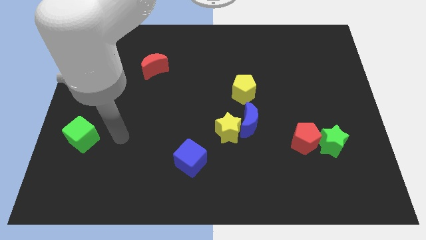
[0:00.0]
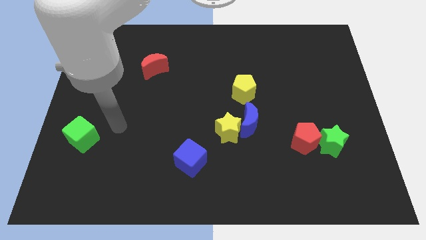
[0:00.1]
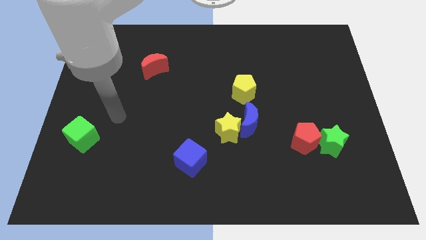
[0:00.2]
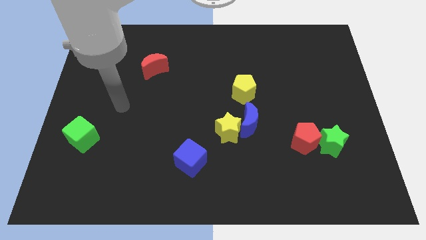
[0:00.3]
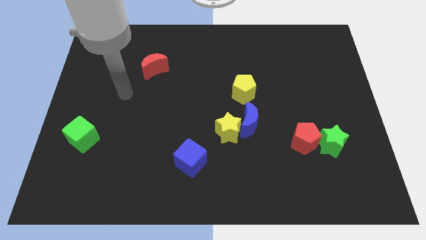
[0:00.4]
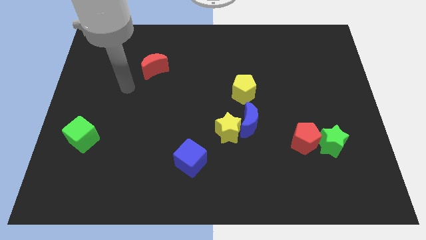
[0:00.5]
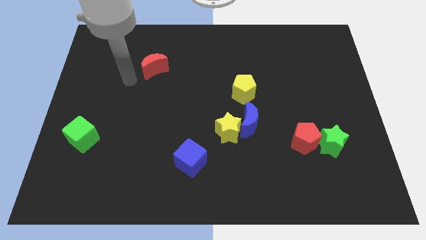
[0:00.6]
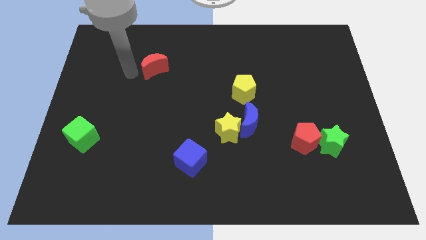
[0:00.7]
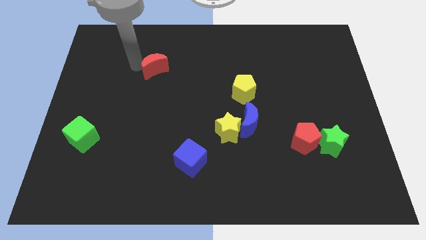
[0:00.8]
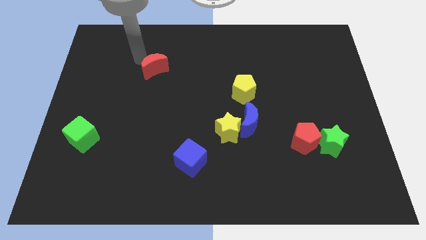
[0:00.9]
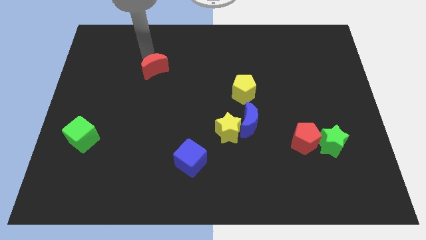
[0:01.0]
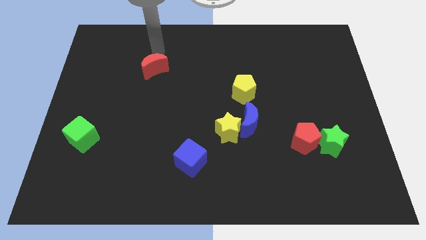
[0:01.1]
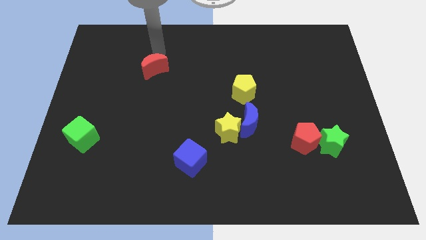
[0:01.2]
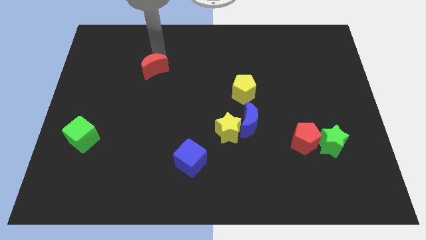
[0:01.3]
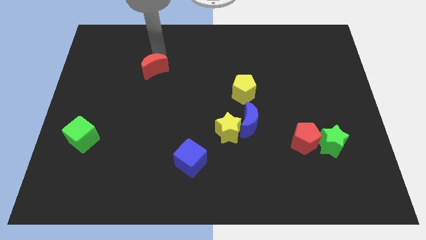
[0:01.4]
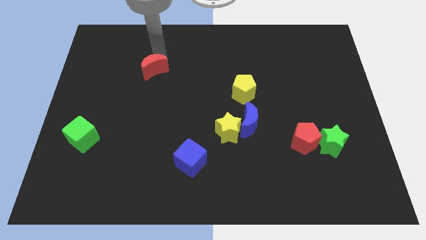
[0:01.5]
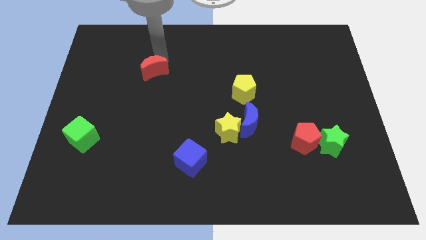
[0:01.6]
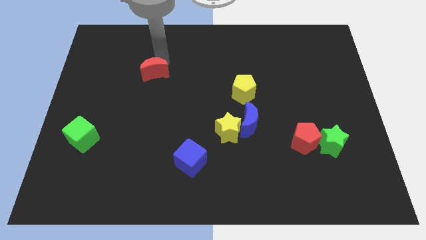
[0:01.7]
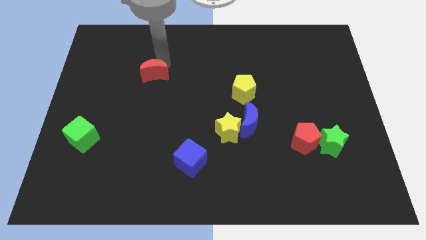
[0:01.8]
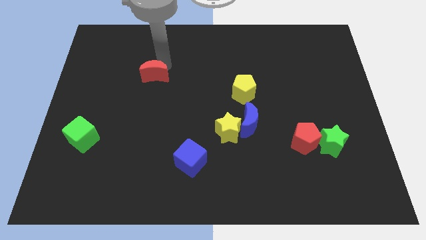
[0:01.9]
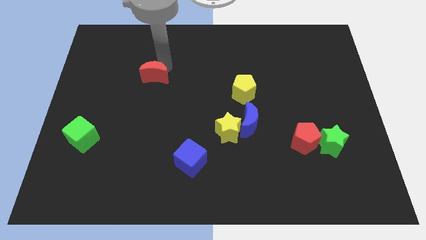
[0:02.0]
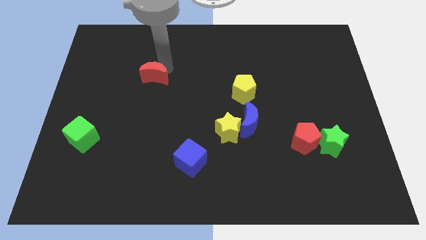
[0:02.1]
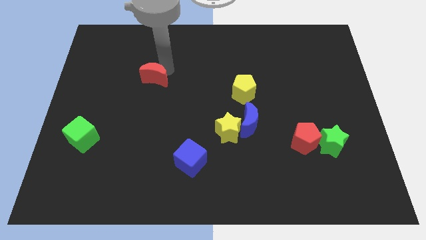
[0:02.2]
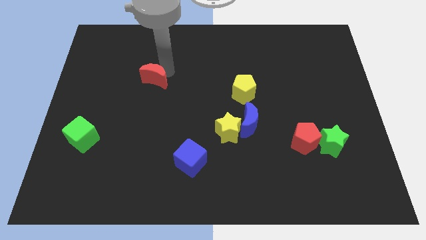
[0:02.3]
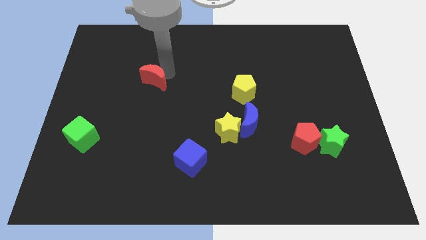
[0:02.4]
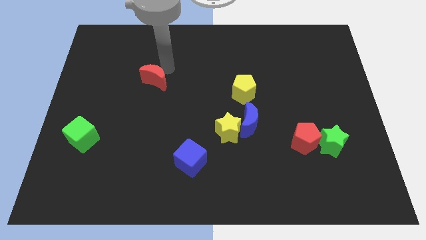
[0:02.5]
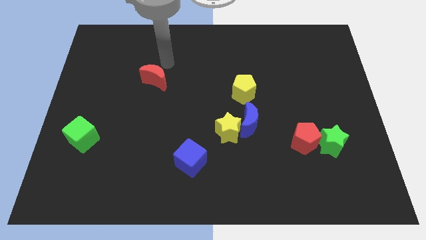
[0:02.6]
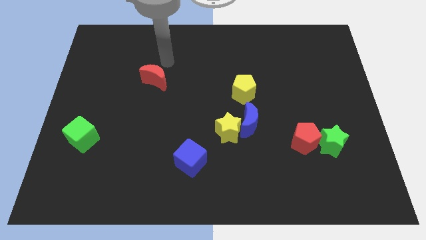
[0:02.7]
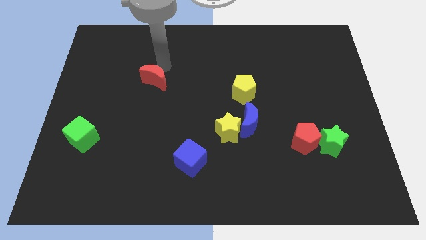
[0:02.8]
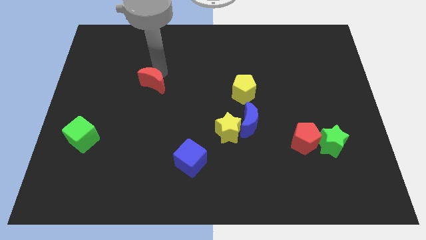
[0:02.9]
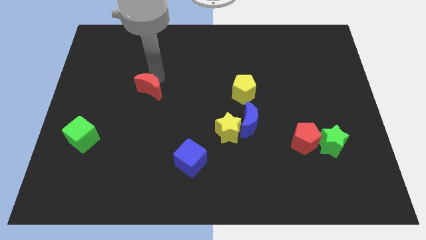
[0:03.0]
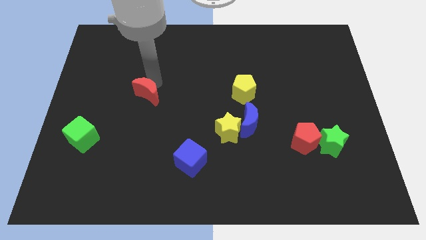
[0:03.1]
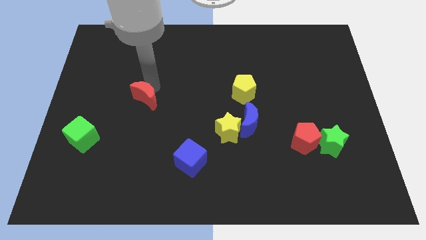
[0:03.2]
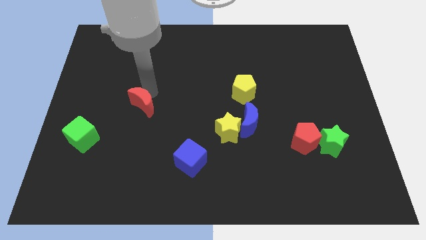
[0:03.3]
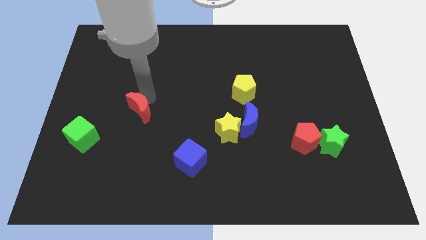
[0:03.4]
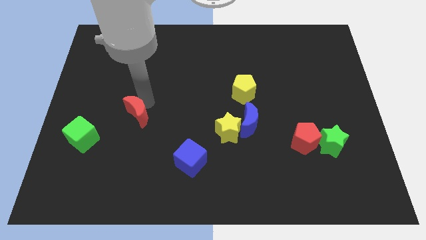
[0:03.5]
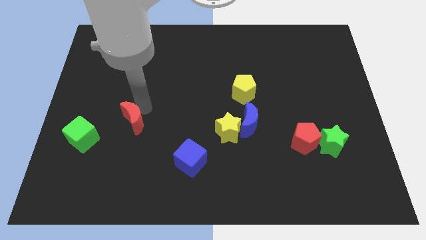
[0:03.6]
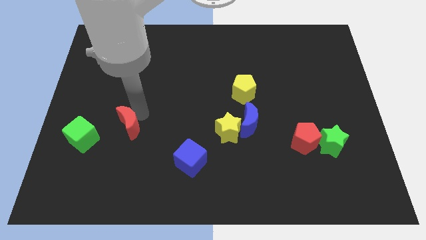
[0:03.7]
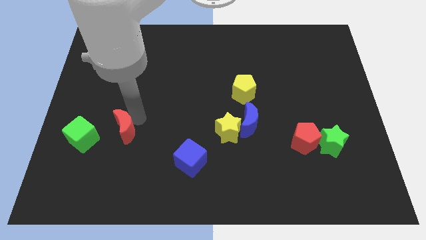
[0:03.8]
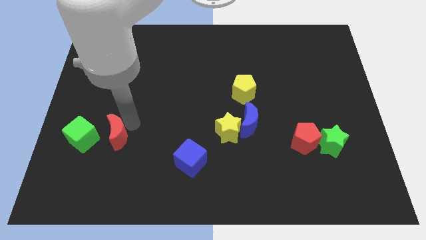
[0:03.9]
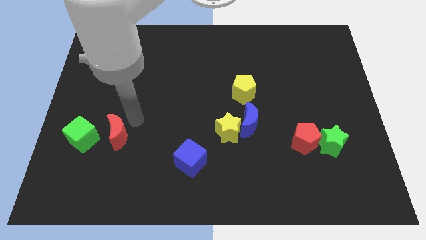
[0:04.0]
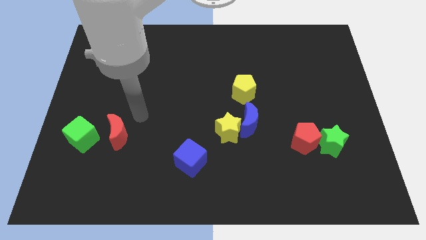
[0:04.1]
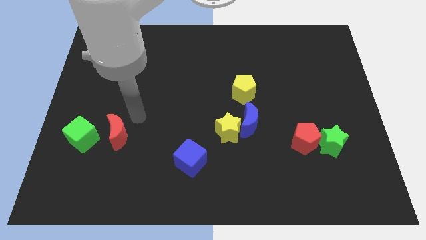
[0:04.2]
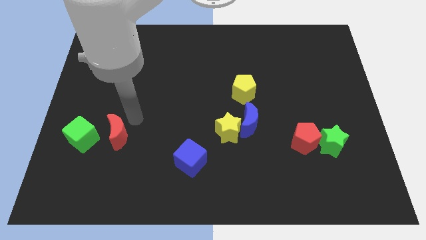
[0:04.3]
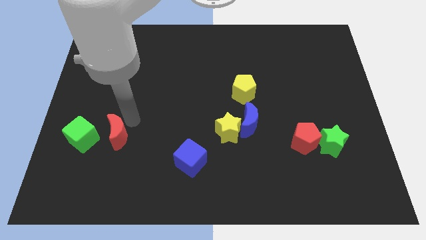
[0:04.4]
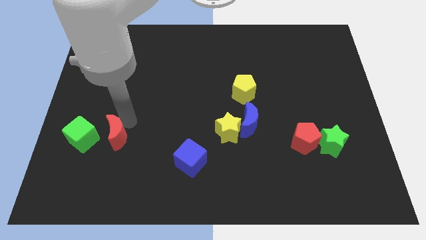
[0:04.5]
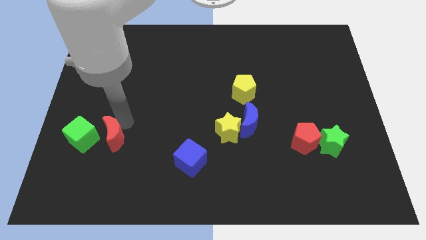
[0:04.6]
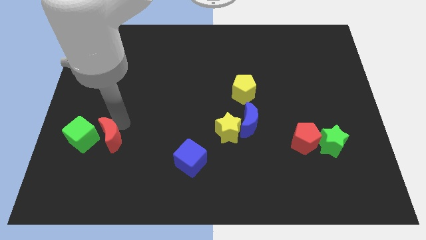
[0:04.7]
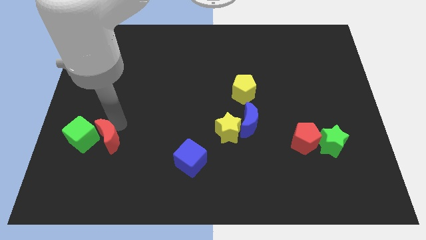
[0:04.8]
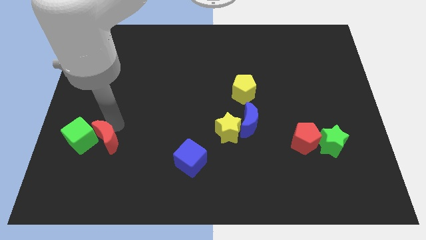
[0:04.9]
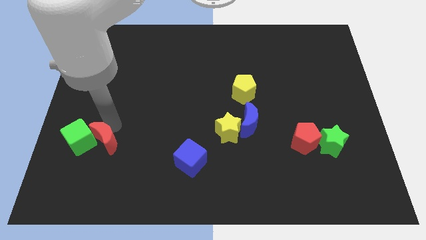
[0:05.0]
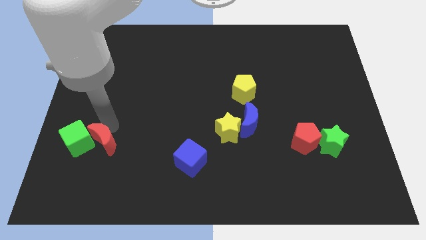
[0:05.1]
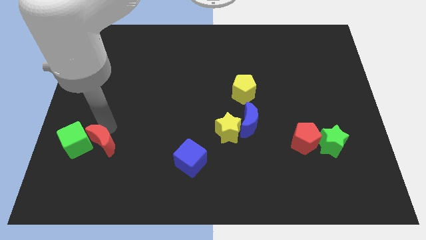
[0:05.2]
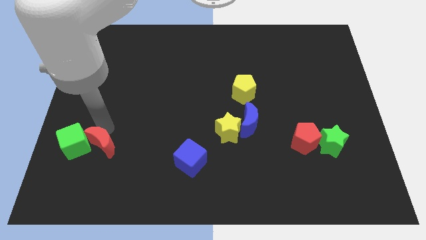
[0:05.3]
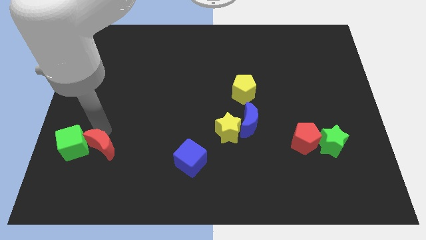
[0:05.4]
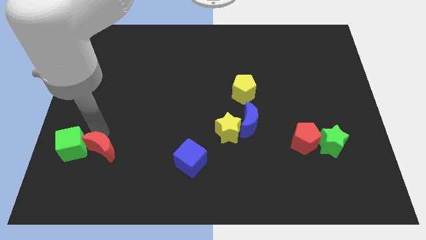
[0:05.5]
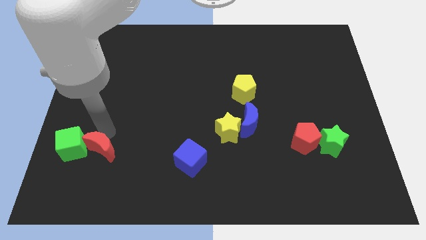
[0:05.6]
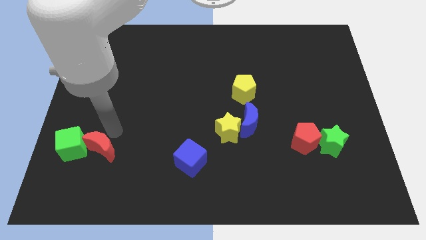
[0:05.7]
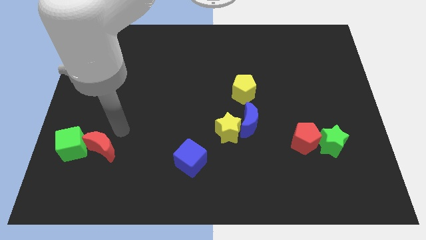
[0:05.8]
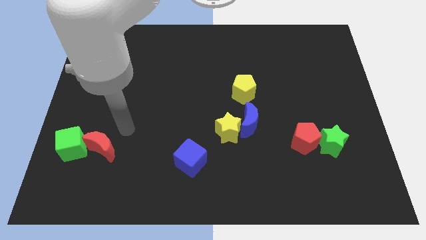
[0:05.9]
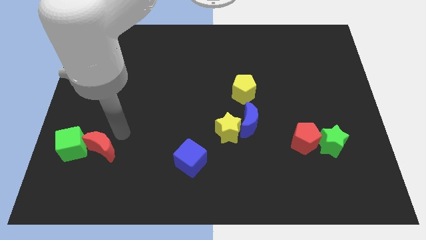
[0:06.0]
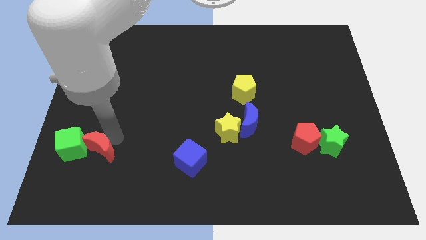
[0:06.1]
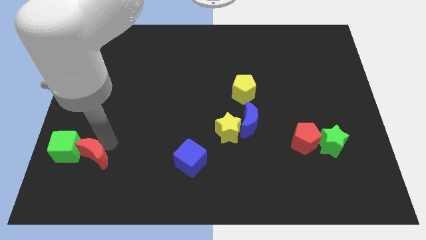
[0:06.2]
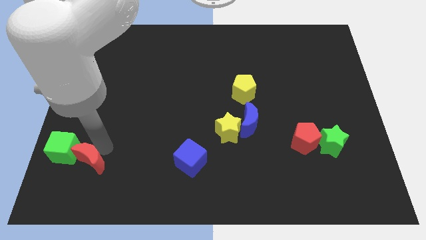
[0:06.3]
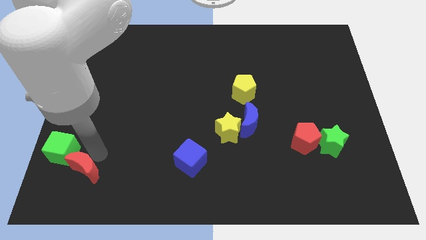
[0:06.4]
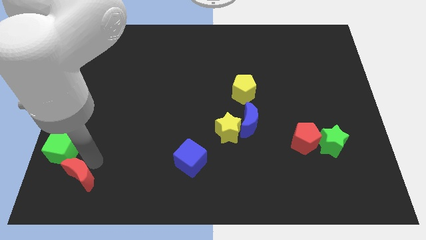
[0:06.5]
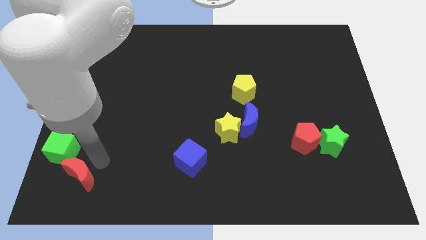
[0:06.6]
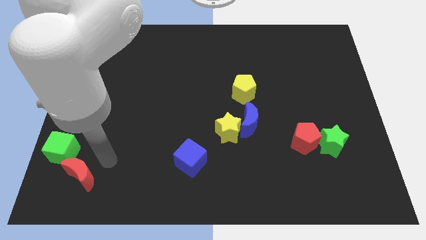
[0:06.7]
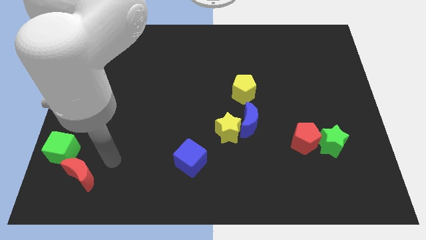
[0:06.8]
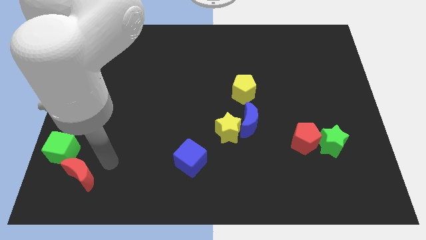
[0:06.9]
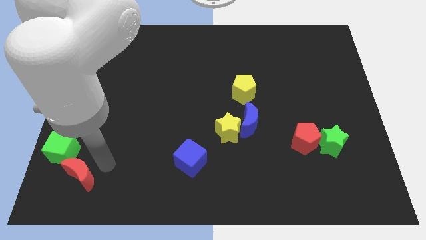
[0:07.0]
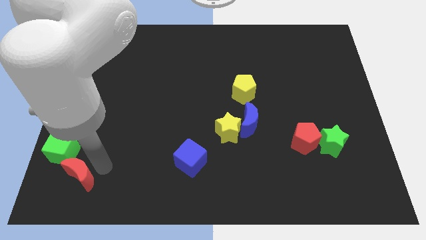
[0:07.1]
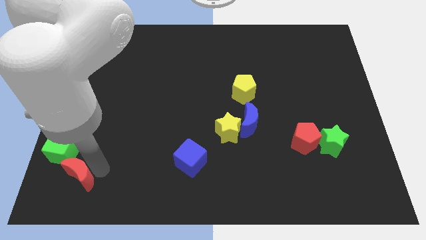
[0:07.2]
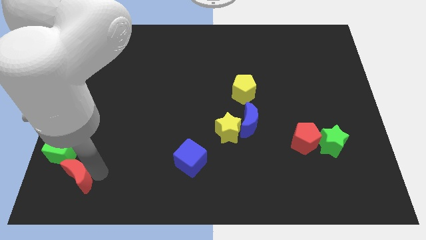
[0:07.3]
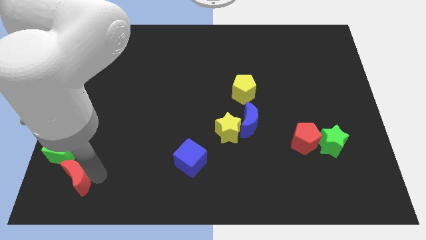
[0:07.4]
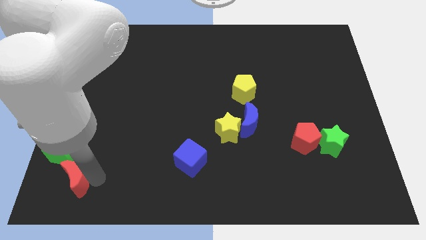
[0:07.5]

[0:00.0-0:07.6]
put the red moon to the bottom left corner
